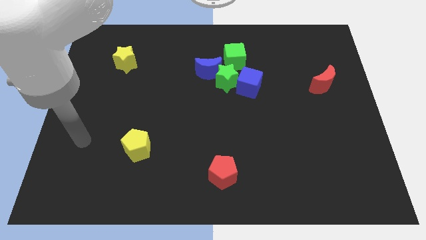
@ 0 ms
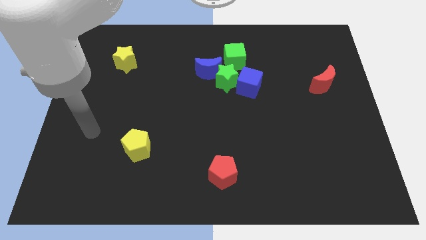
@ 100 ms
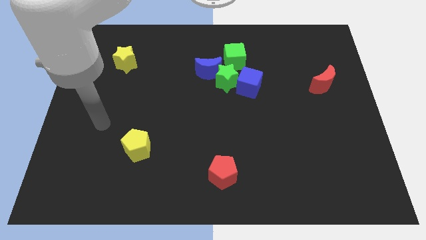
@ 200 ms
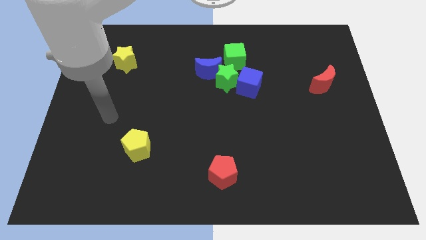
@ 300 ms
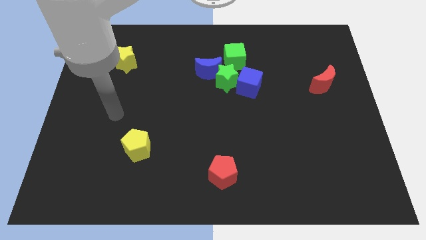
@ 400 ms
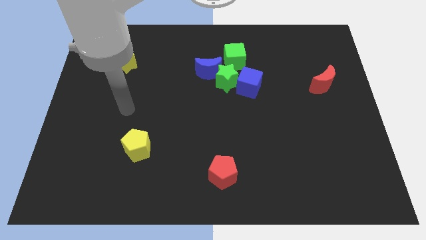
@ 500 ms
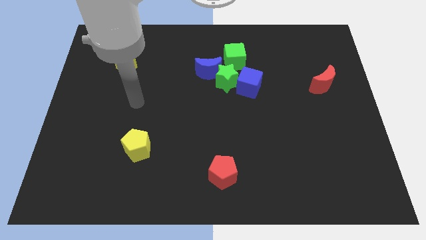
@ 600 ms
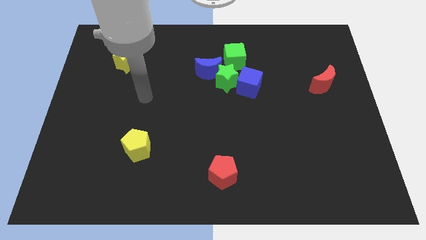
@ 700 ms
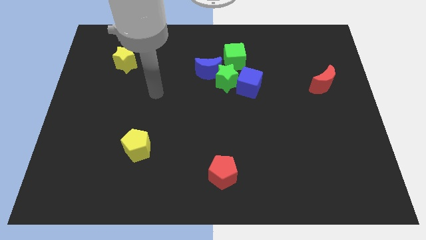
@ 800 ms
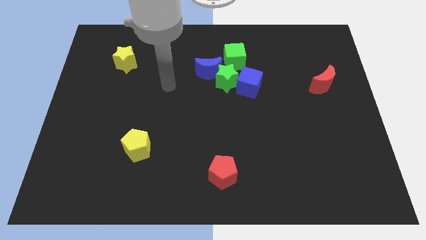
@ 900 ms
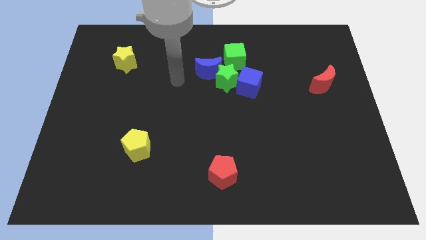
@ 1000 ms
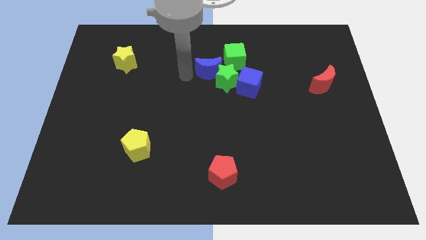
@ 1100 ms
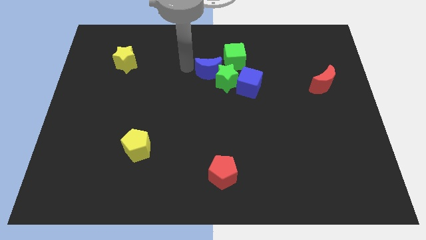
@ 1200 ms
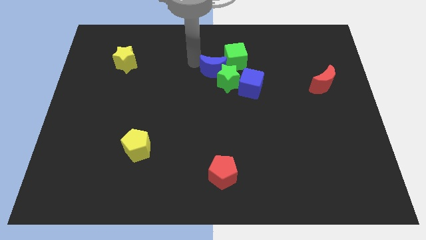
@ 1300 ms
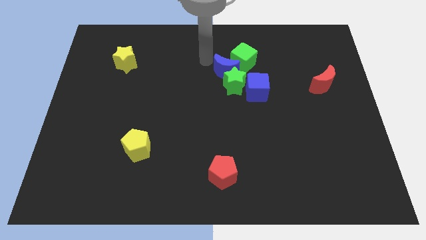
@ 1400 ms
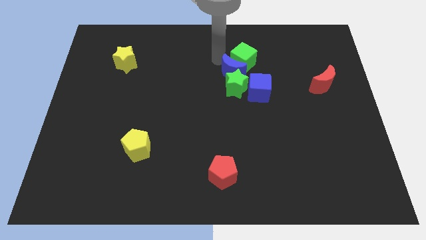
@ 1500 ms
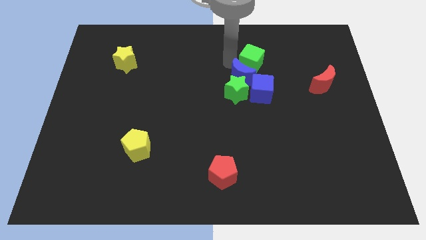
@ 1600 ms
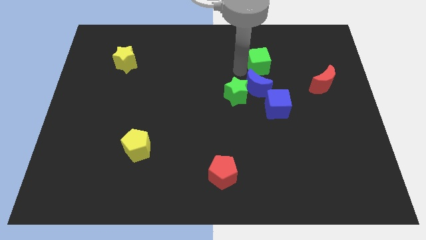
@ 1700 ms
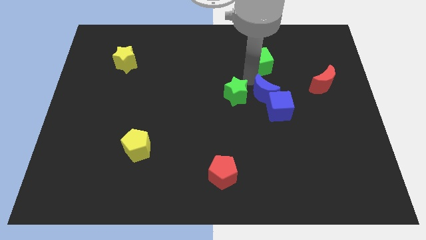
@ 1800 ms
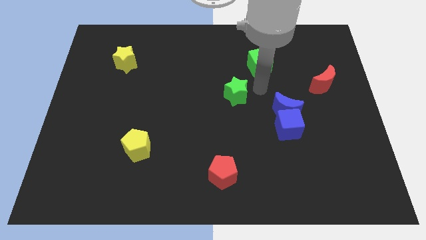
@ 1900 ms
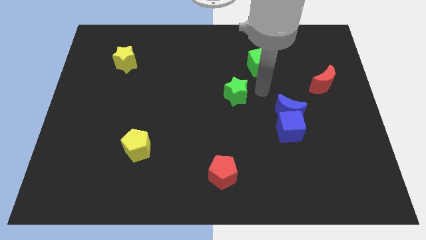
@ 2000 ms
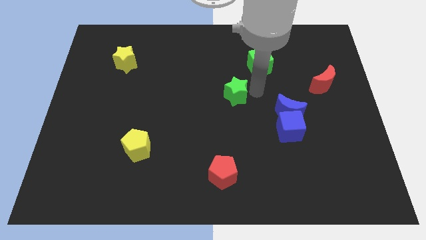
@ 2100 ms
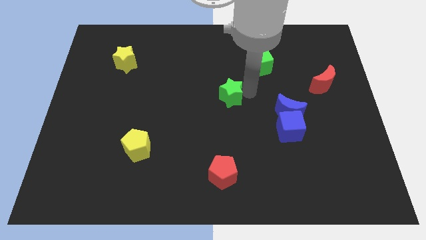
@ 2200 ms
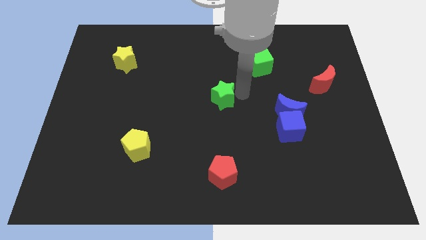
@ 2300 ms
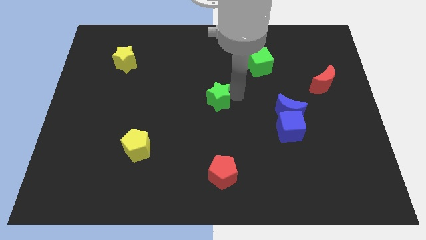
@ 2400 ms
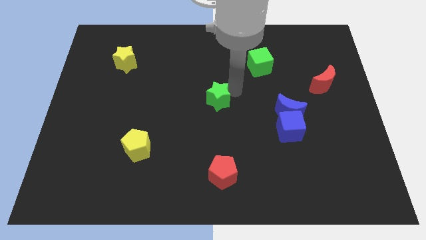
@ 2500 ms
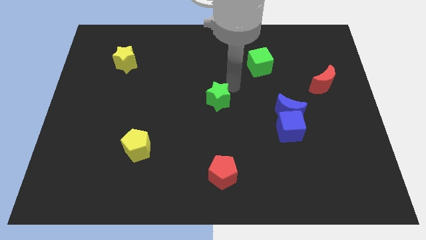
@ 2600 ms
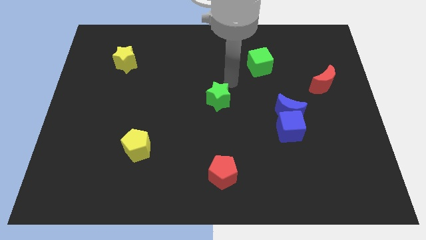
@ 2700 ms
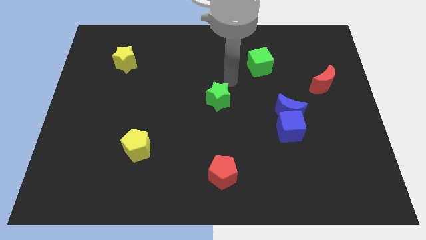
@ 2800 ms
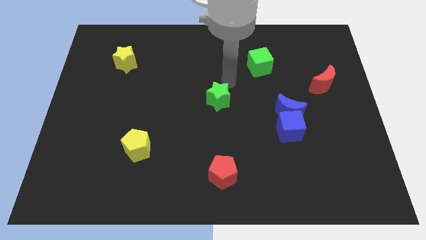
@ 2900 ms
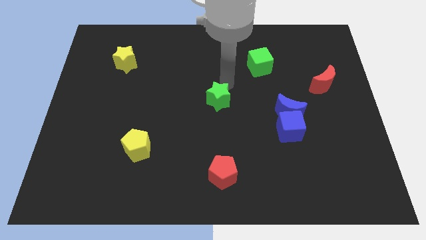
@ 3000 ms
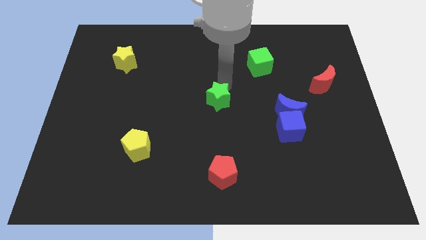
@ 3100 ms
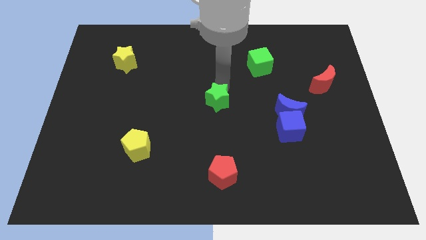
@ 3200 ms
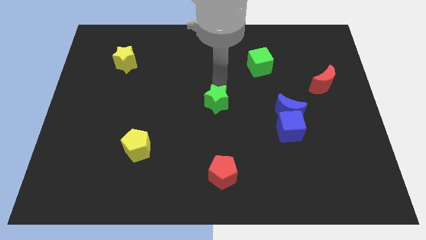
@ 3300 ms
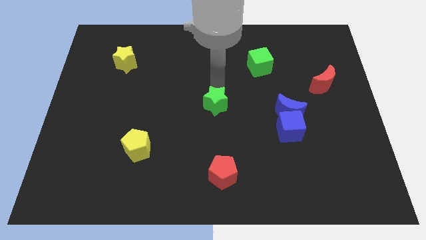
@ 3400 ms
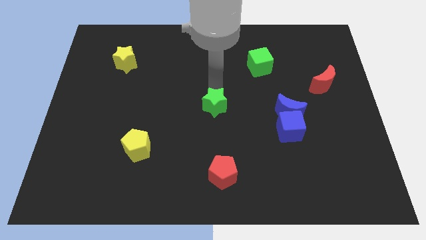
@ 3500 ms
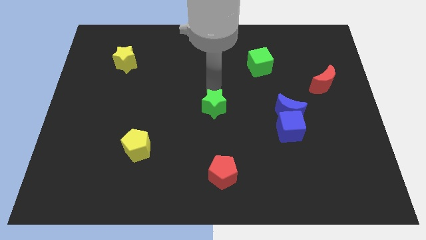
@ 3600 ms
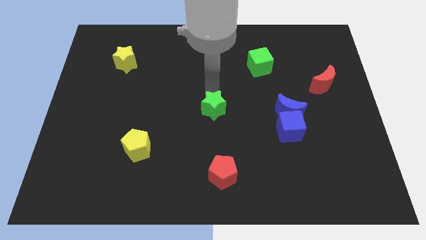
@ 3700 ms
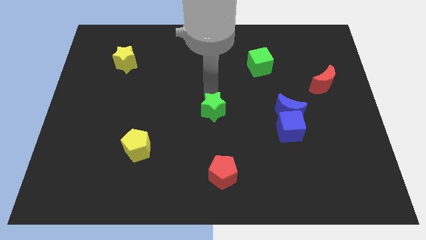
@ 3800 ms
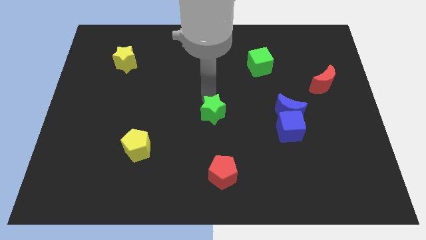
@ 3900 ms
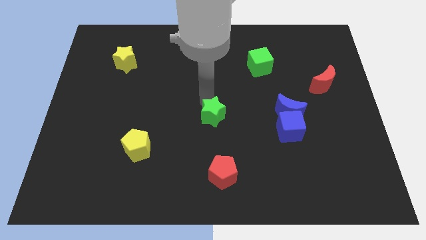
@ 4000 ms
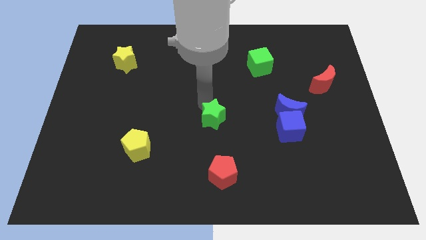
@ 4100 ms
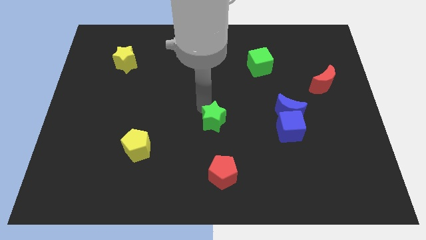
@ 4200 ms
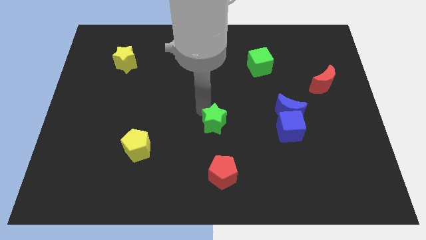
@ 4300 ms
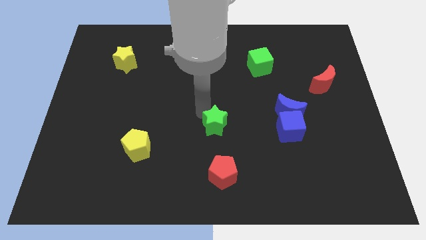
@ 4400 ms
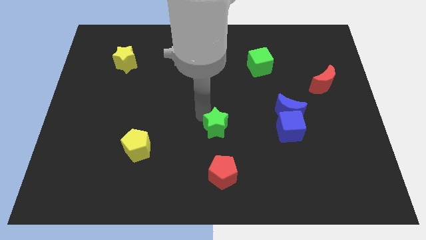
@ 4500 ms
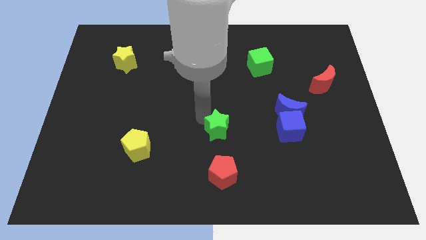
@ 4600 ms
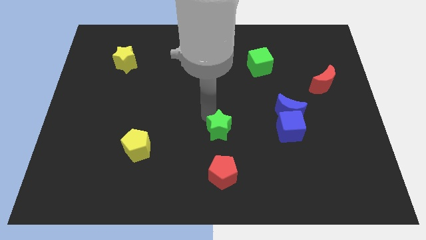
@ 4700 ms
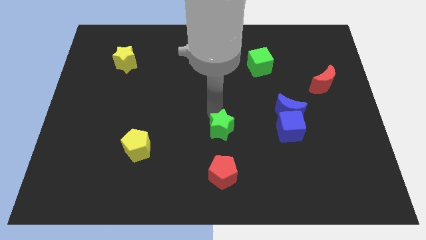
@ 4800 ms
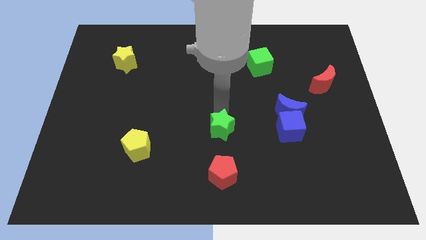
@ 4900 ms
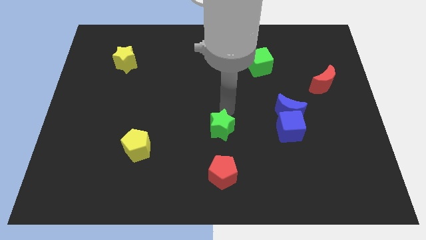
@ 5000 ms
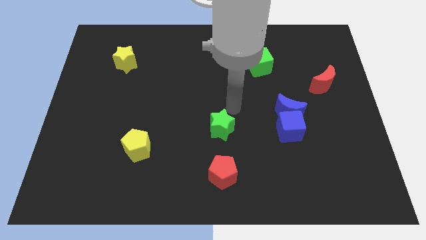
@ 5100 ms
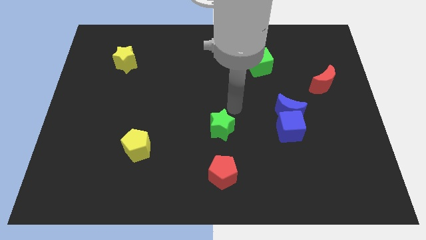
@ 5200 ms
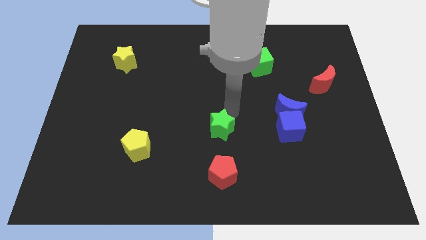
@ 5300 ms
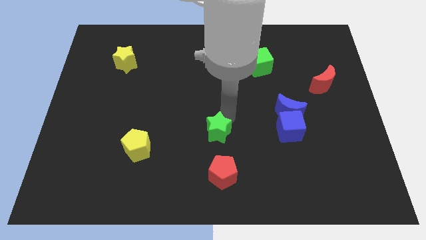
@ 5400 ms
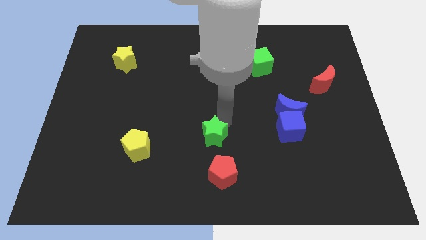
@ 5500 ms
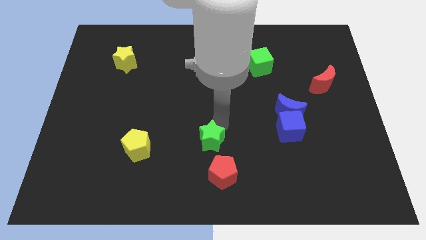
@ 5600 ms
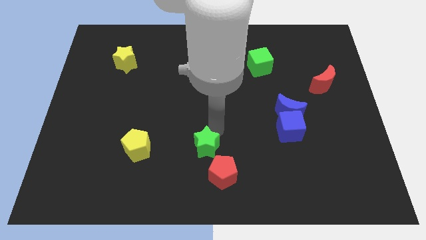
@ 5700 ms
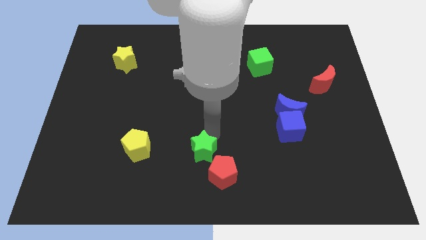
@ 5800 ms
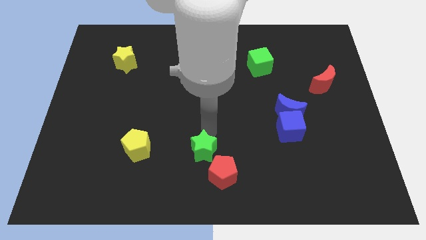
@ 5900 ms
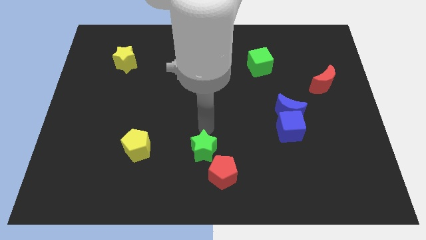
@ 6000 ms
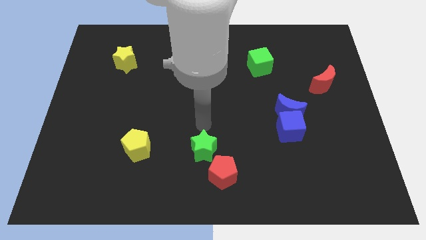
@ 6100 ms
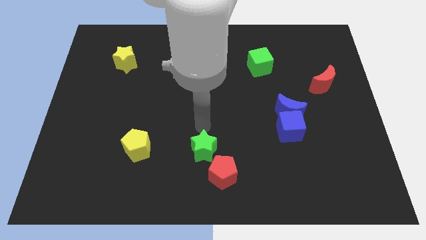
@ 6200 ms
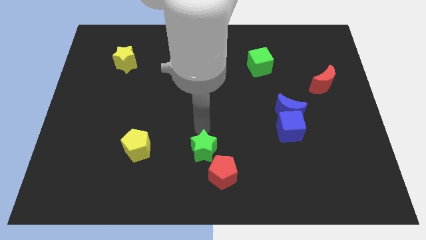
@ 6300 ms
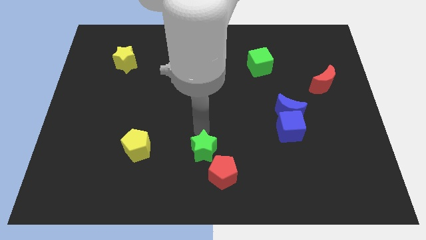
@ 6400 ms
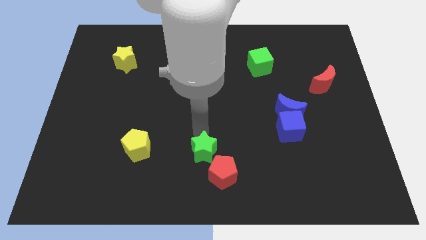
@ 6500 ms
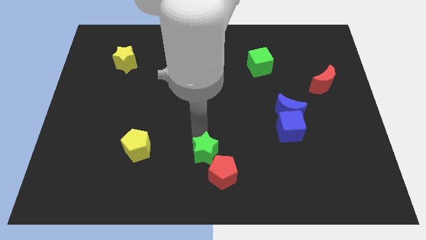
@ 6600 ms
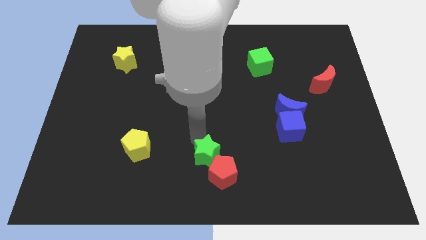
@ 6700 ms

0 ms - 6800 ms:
slide the green star to the bottom
